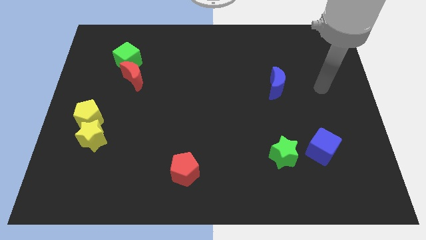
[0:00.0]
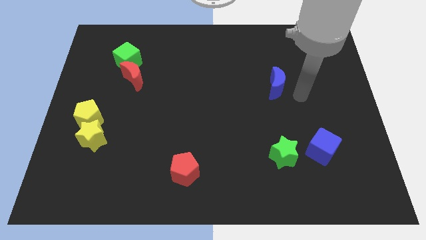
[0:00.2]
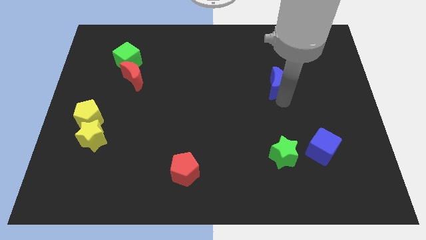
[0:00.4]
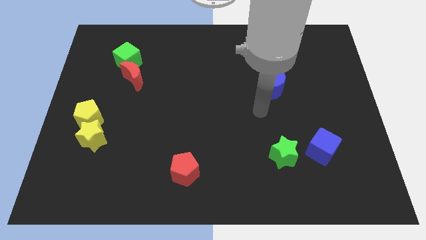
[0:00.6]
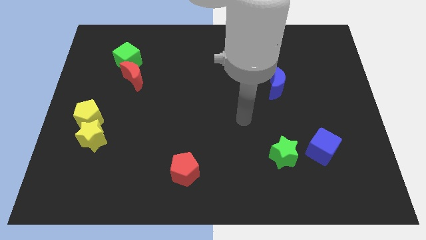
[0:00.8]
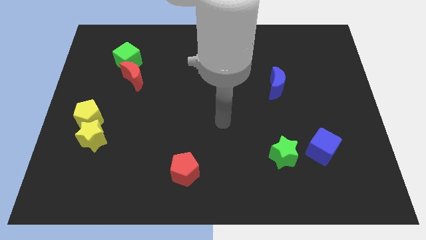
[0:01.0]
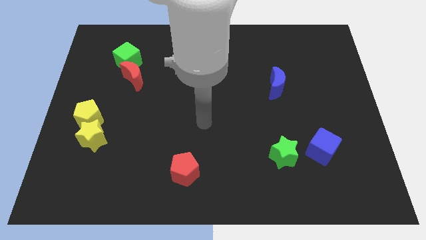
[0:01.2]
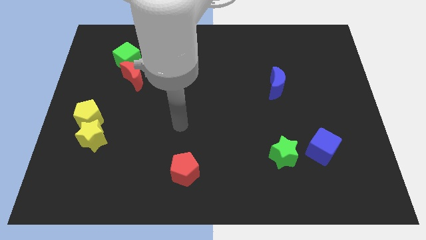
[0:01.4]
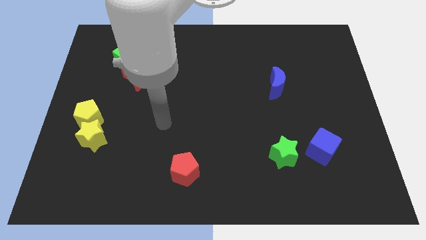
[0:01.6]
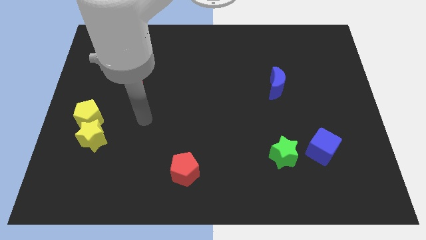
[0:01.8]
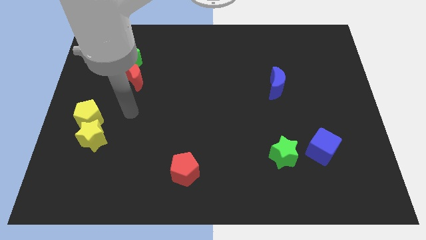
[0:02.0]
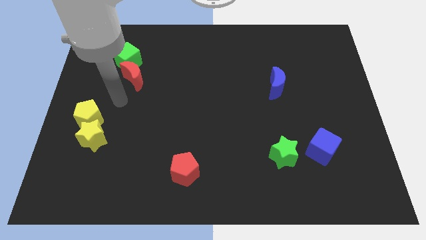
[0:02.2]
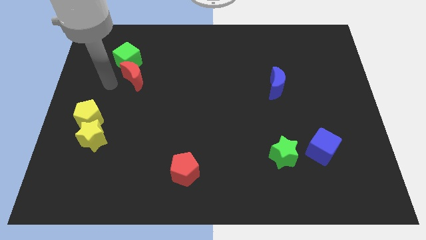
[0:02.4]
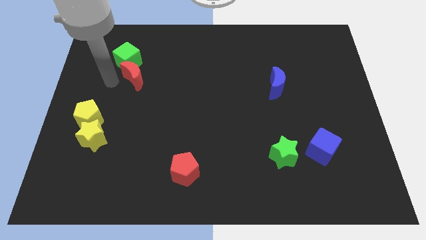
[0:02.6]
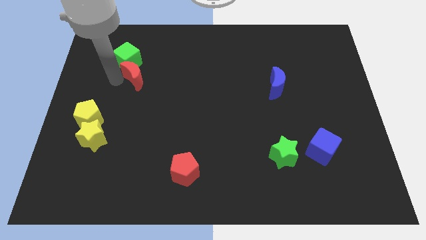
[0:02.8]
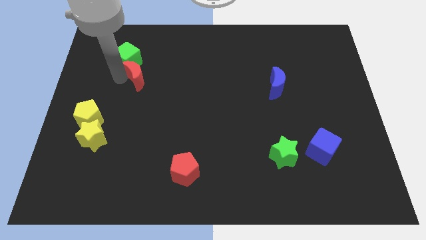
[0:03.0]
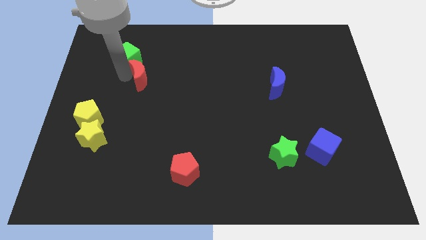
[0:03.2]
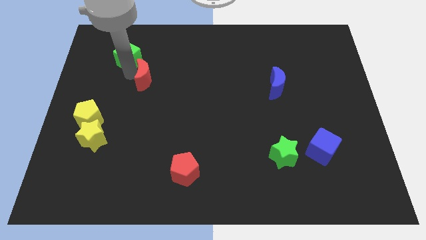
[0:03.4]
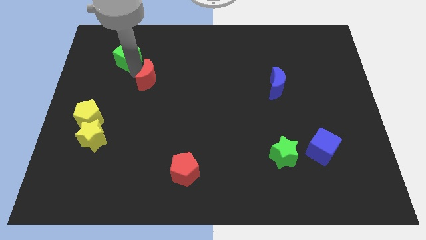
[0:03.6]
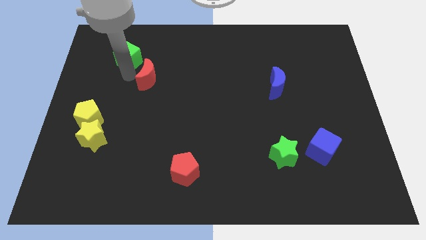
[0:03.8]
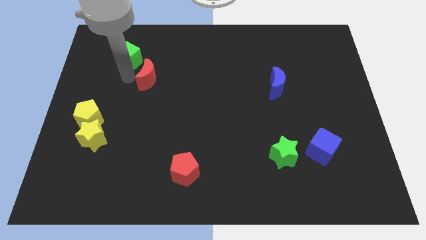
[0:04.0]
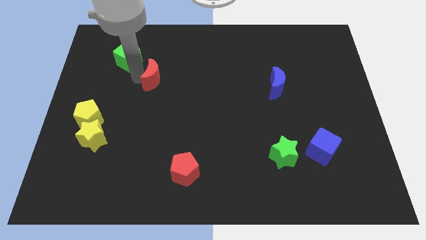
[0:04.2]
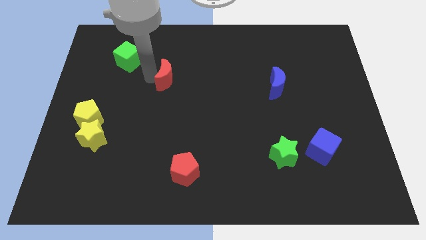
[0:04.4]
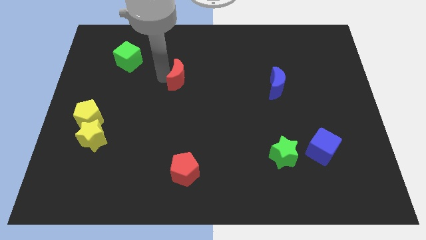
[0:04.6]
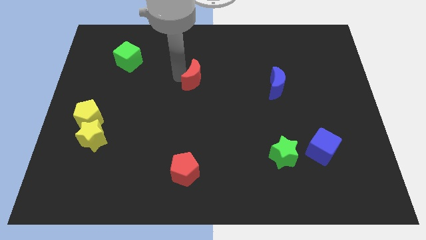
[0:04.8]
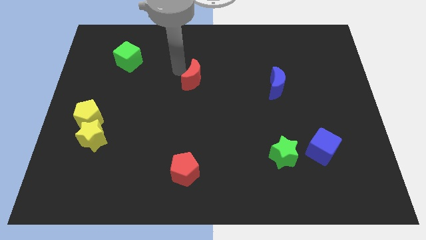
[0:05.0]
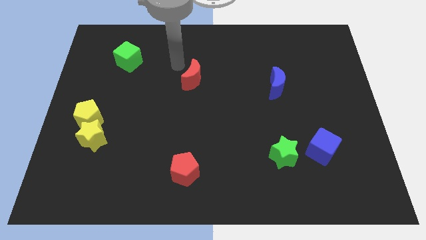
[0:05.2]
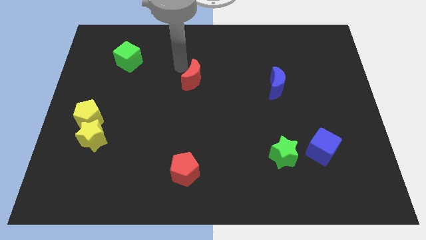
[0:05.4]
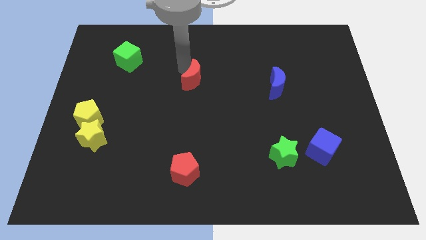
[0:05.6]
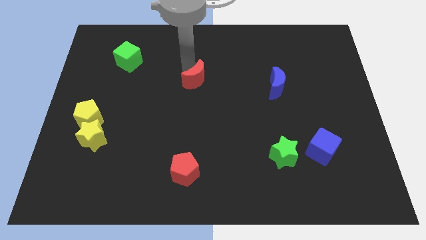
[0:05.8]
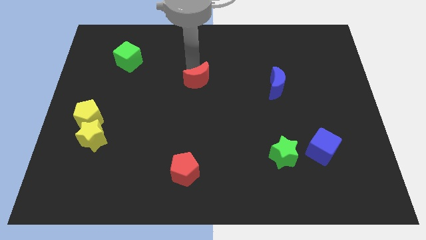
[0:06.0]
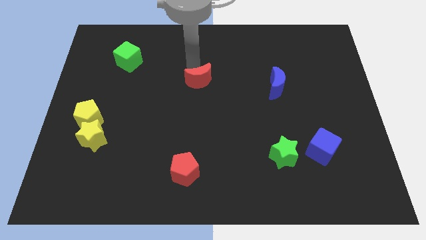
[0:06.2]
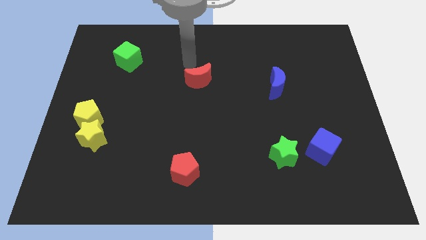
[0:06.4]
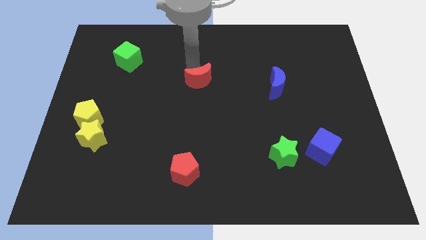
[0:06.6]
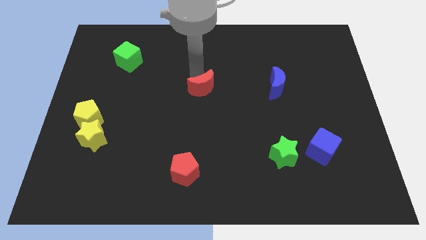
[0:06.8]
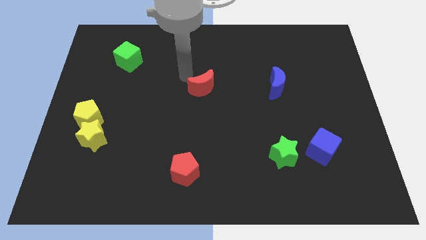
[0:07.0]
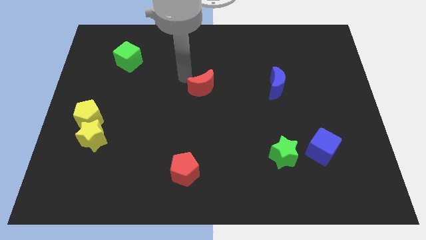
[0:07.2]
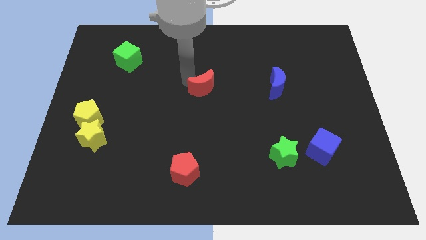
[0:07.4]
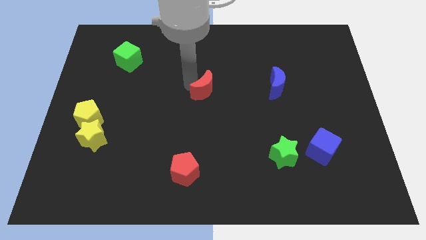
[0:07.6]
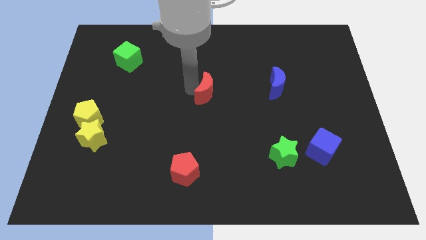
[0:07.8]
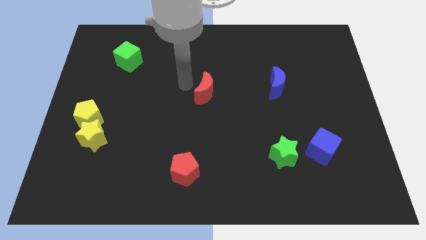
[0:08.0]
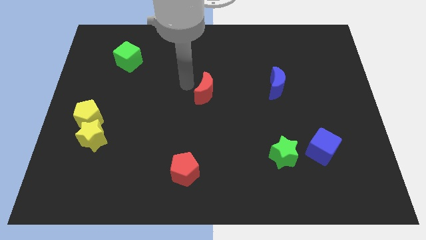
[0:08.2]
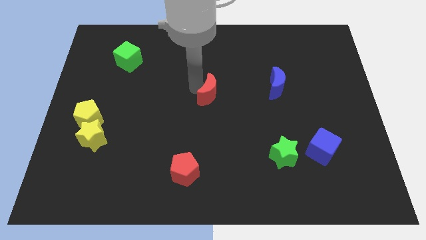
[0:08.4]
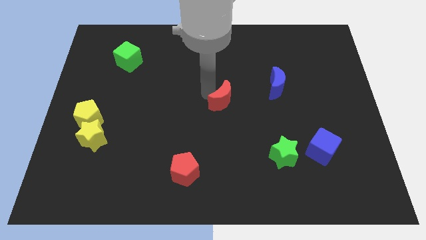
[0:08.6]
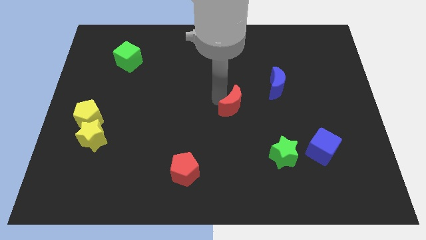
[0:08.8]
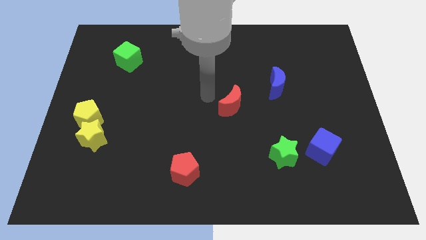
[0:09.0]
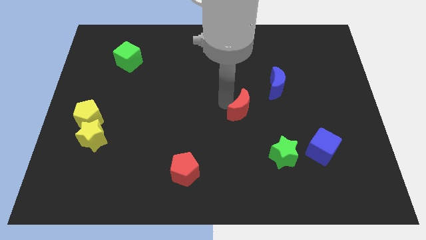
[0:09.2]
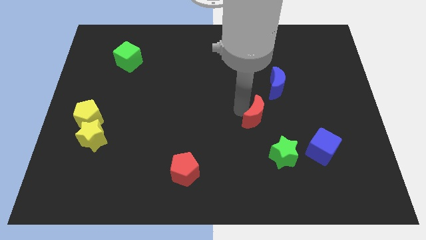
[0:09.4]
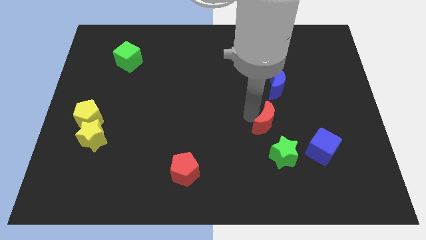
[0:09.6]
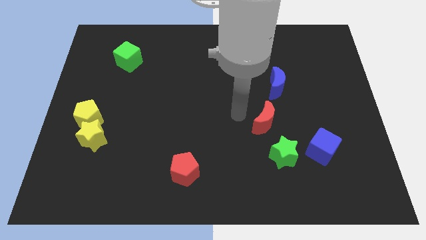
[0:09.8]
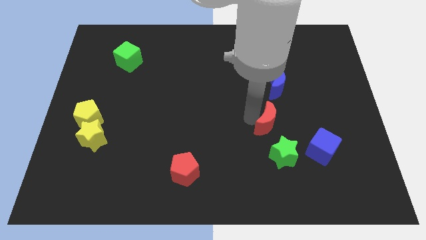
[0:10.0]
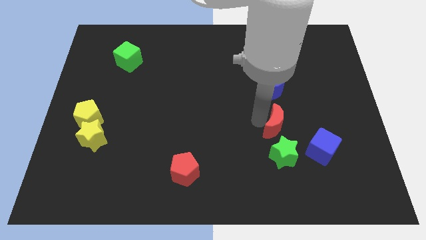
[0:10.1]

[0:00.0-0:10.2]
put the red moon to the top left side of the blue cube

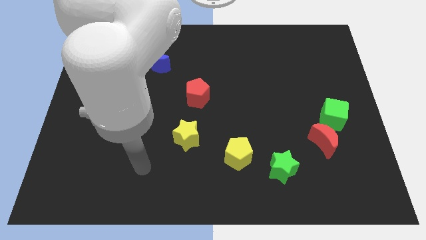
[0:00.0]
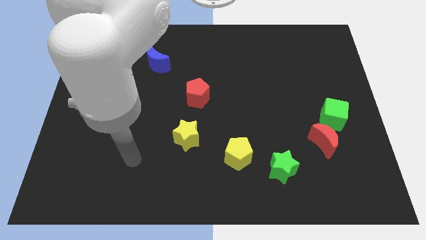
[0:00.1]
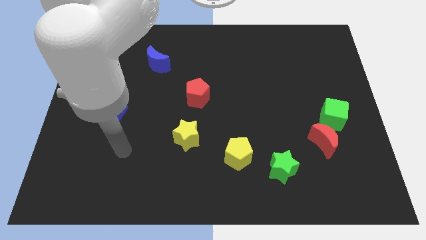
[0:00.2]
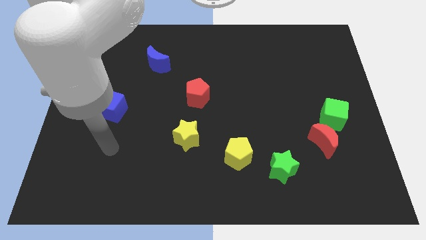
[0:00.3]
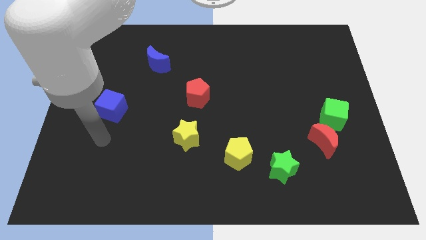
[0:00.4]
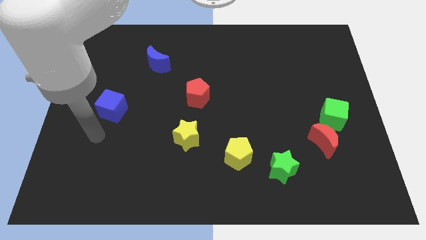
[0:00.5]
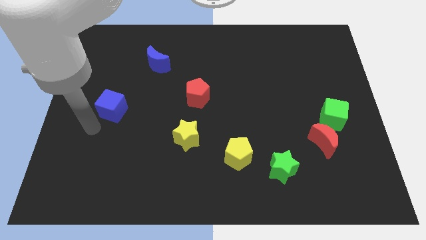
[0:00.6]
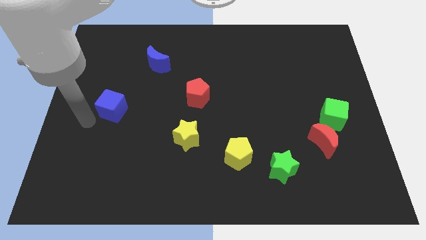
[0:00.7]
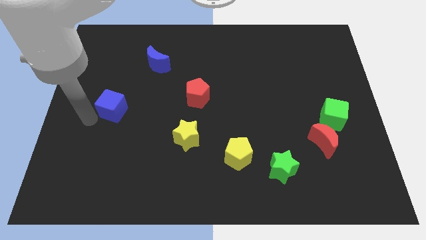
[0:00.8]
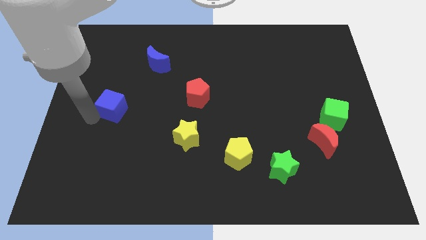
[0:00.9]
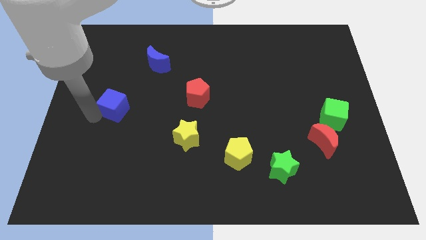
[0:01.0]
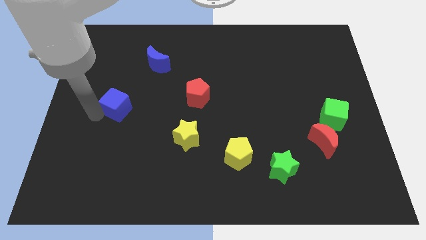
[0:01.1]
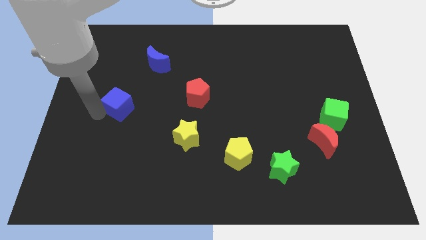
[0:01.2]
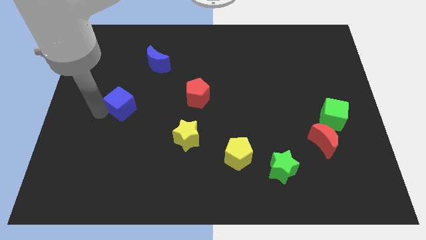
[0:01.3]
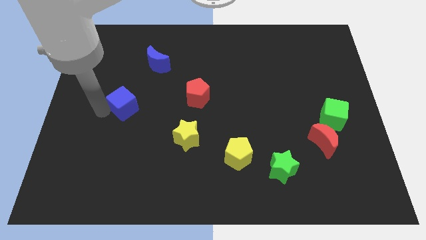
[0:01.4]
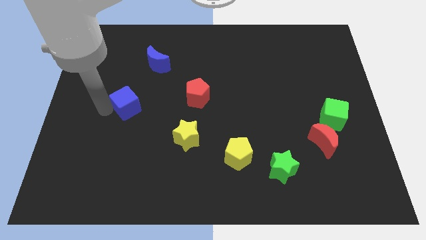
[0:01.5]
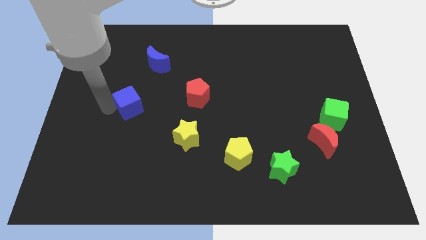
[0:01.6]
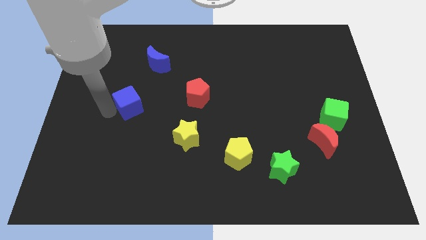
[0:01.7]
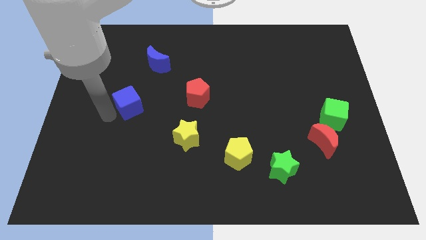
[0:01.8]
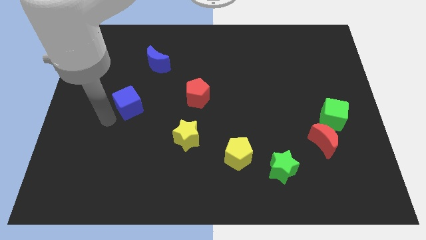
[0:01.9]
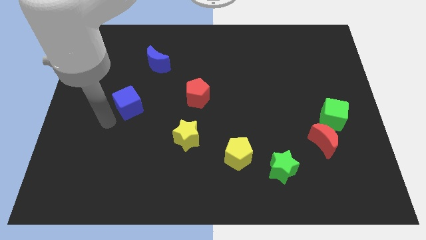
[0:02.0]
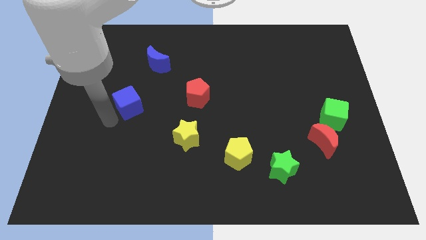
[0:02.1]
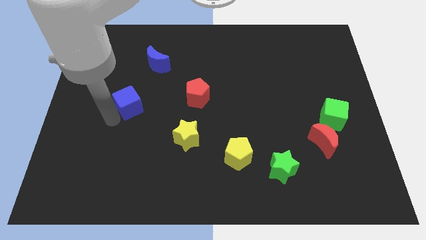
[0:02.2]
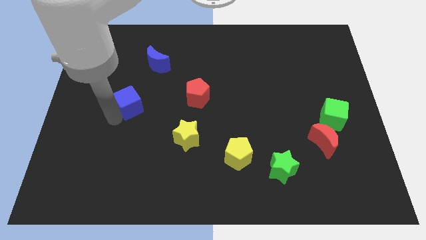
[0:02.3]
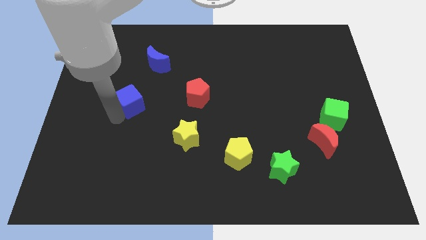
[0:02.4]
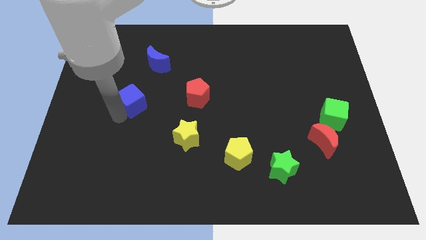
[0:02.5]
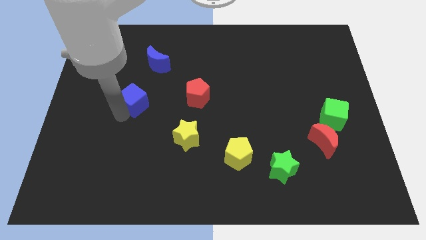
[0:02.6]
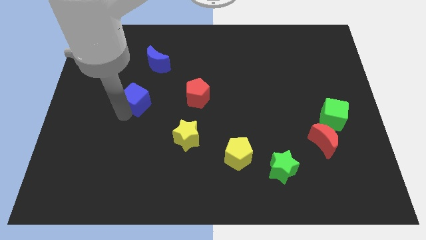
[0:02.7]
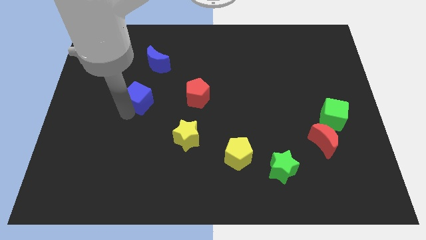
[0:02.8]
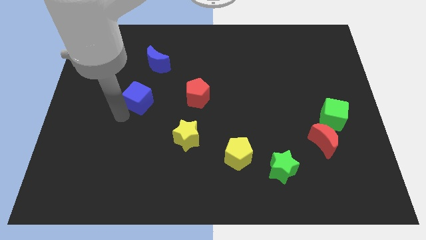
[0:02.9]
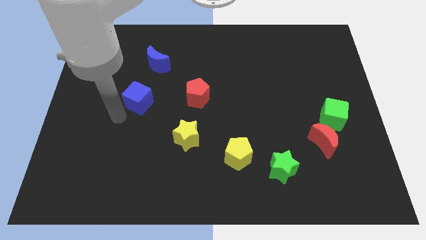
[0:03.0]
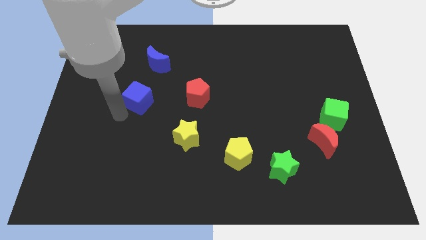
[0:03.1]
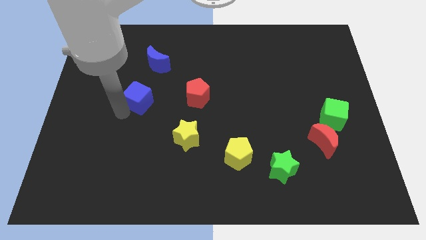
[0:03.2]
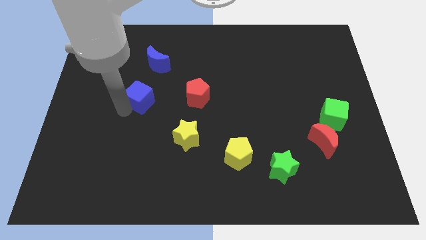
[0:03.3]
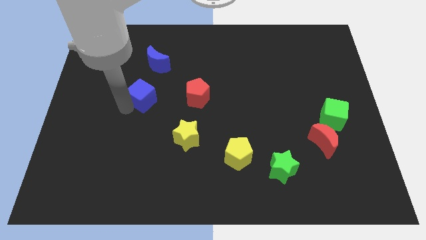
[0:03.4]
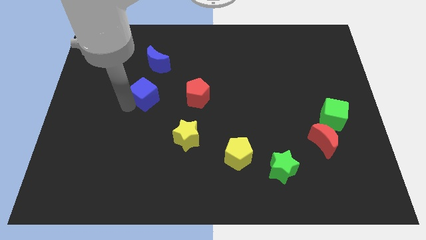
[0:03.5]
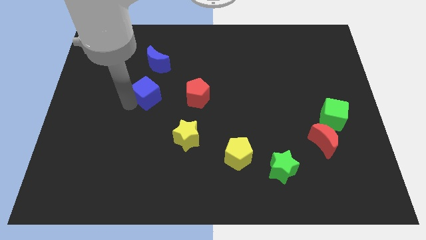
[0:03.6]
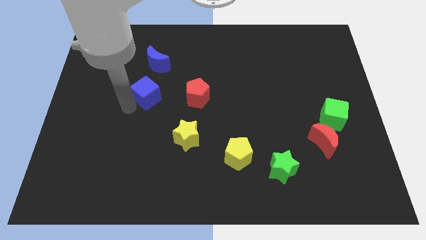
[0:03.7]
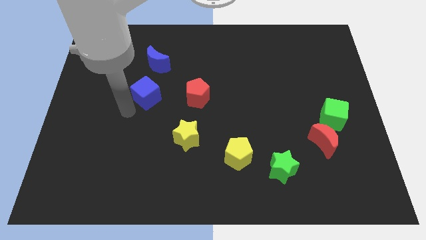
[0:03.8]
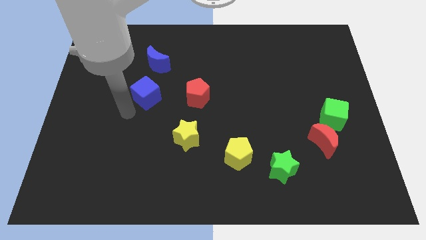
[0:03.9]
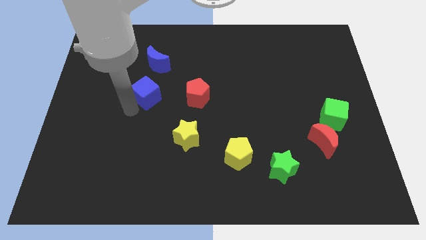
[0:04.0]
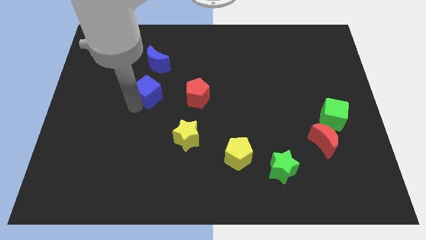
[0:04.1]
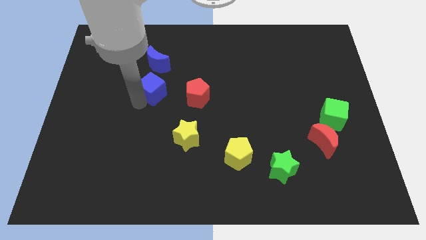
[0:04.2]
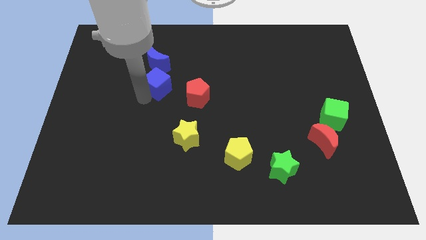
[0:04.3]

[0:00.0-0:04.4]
put the blue cube diagonally up and to the left of the red pentagon
